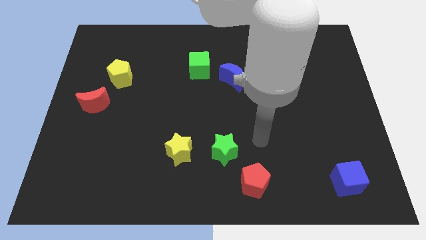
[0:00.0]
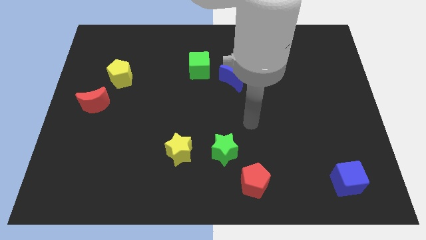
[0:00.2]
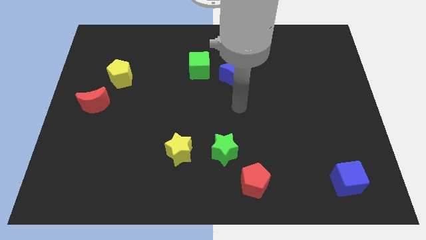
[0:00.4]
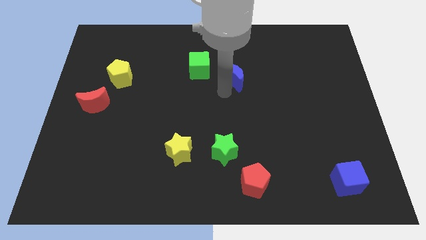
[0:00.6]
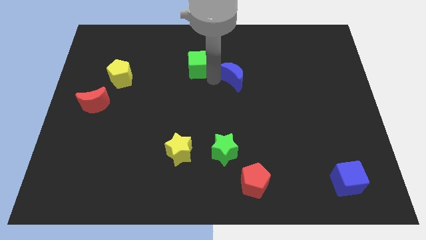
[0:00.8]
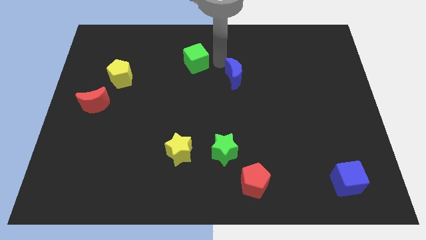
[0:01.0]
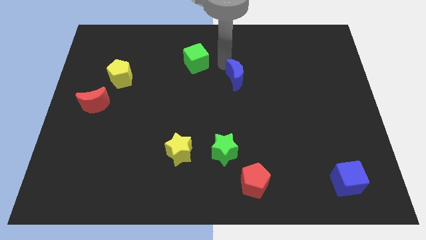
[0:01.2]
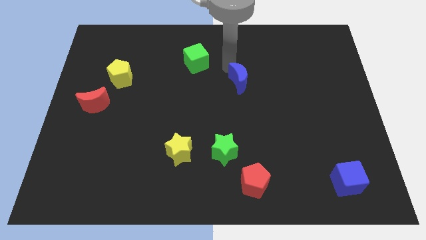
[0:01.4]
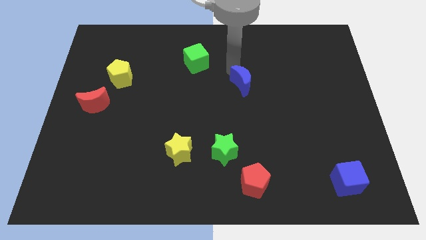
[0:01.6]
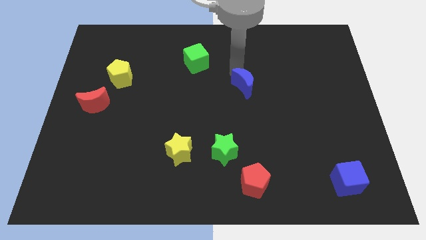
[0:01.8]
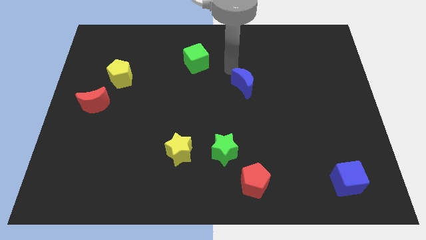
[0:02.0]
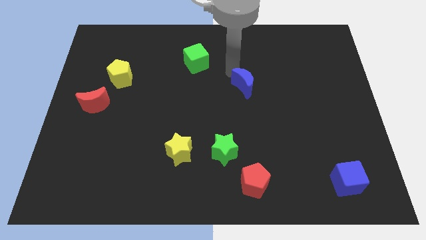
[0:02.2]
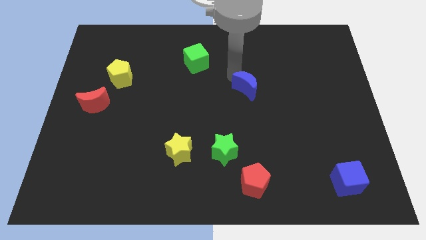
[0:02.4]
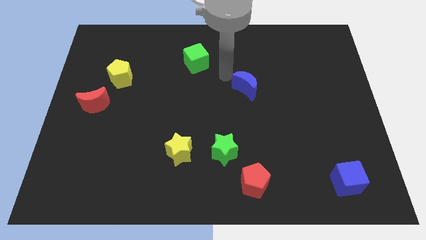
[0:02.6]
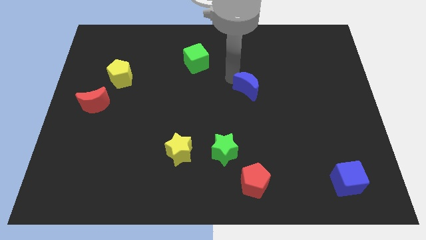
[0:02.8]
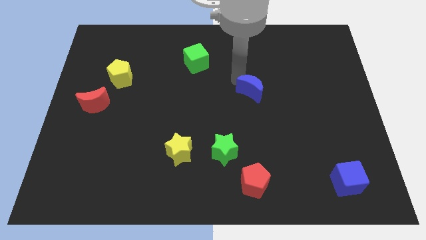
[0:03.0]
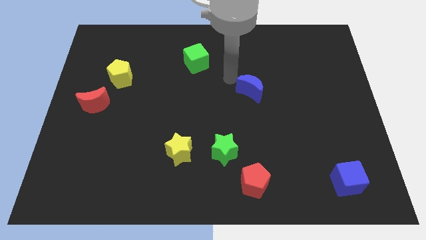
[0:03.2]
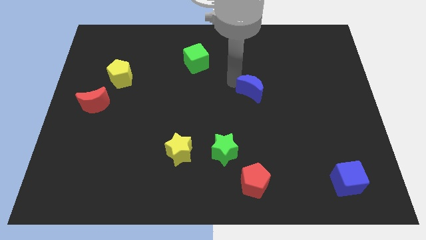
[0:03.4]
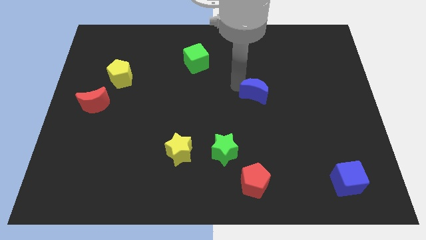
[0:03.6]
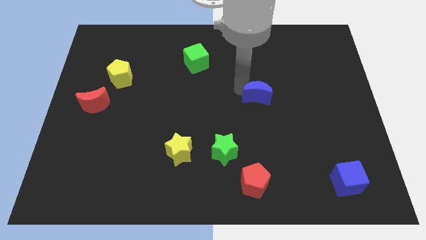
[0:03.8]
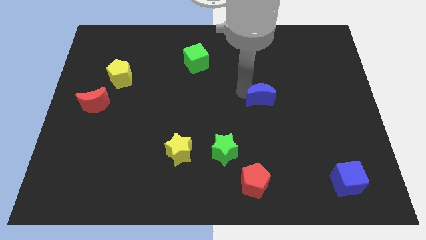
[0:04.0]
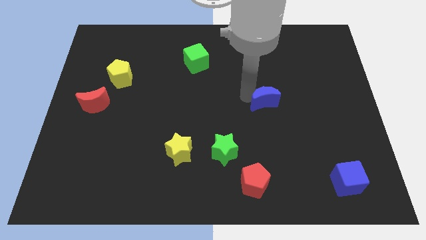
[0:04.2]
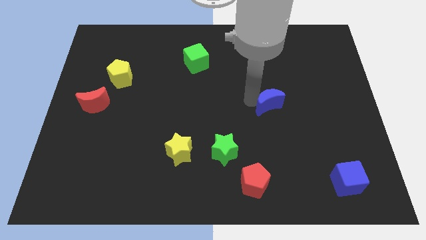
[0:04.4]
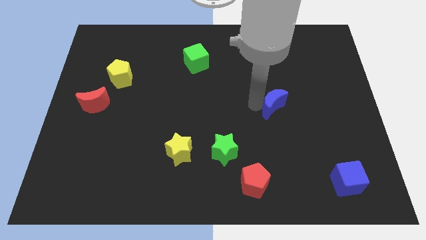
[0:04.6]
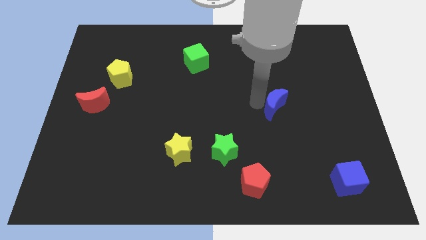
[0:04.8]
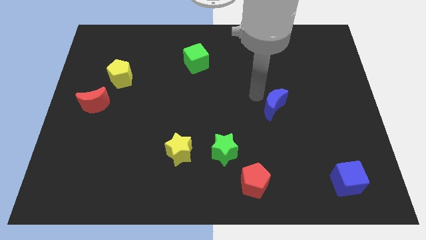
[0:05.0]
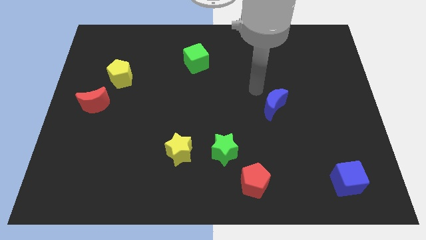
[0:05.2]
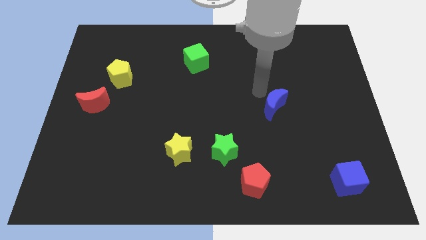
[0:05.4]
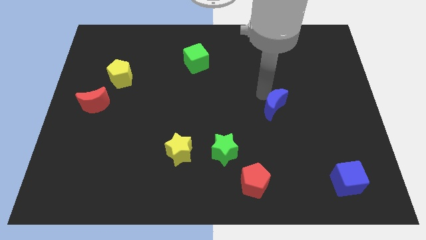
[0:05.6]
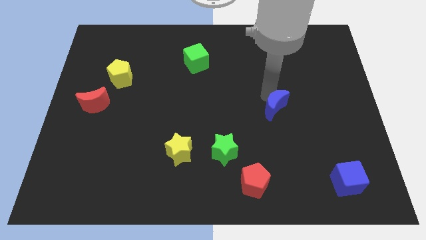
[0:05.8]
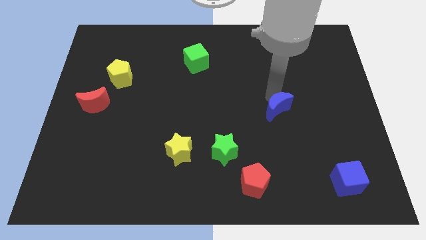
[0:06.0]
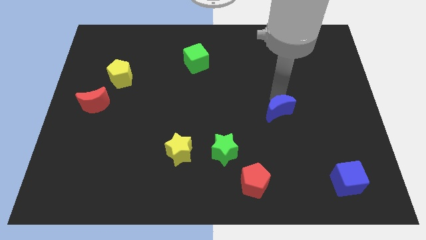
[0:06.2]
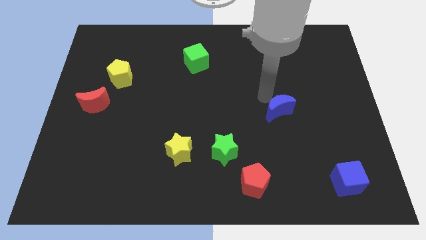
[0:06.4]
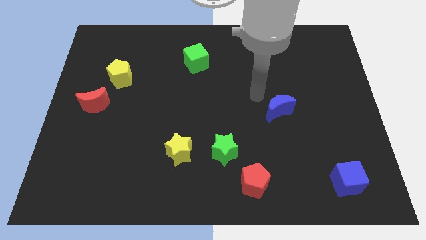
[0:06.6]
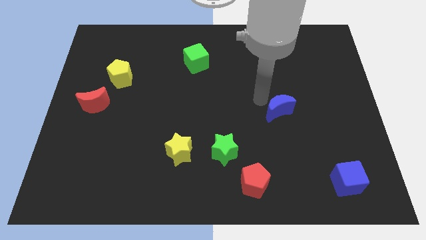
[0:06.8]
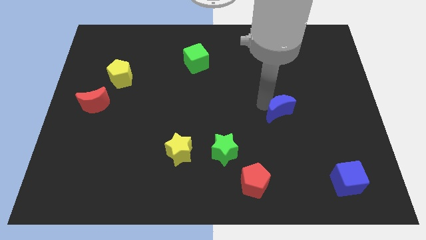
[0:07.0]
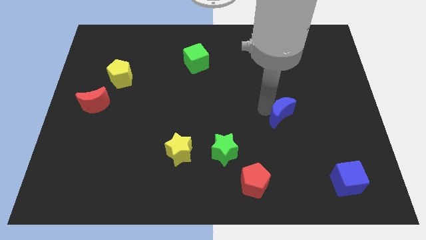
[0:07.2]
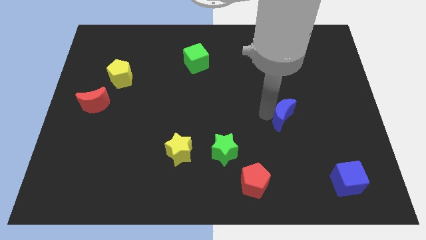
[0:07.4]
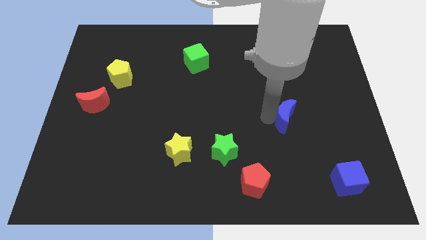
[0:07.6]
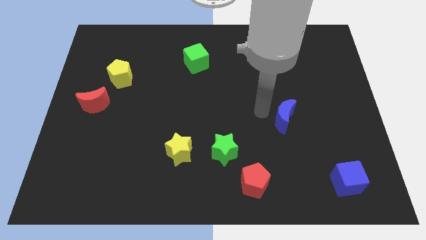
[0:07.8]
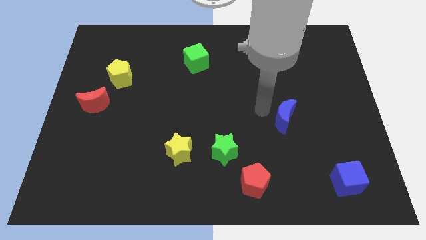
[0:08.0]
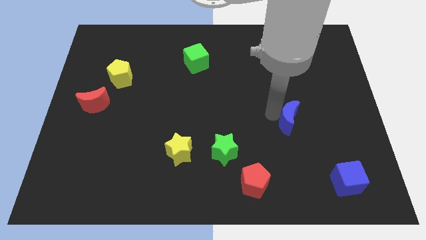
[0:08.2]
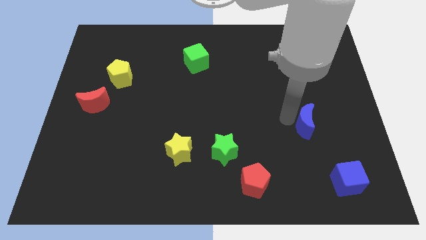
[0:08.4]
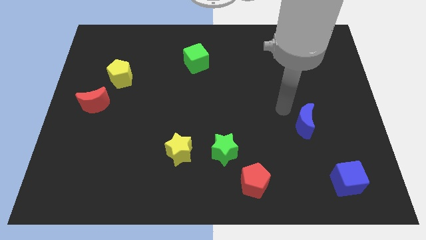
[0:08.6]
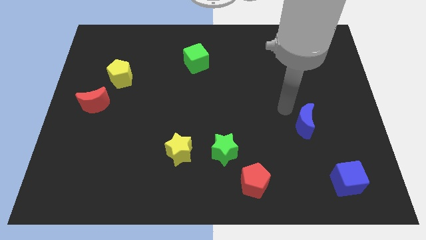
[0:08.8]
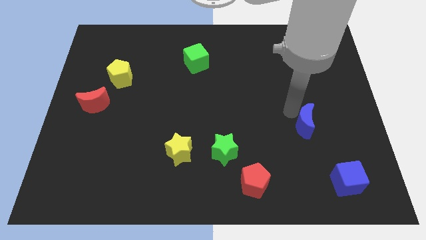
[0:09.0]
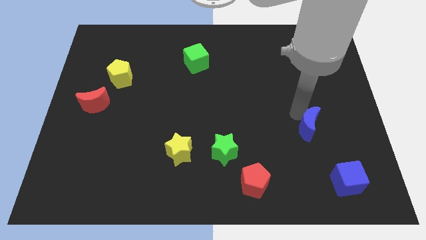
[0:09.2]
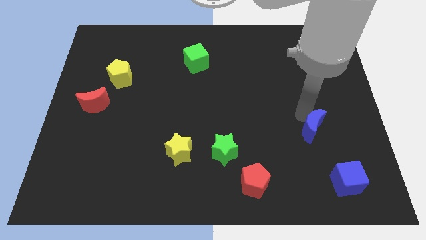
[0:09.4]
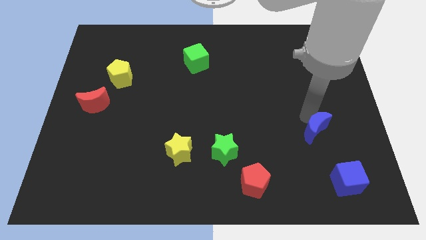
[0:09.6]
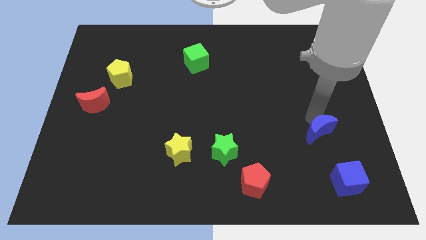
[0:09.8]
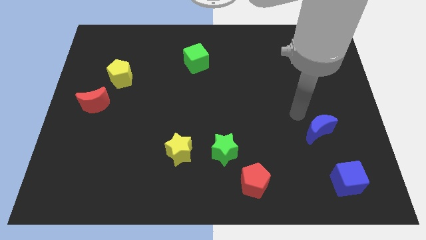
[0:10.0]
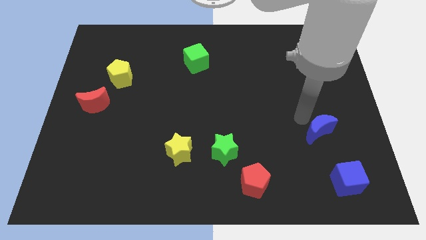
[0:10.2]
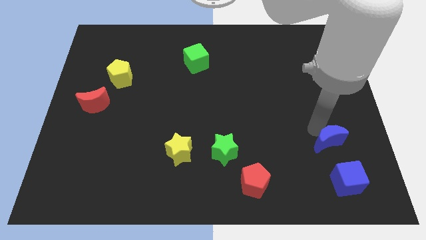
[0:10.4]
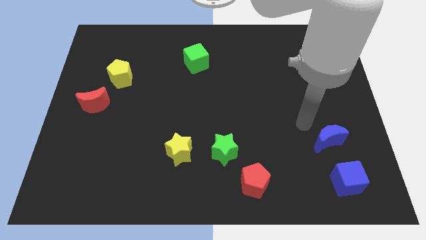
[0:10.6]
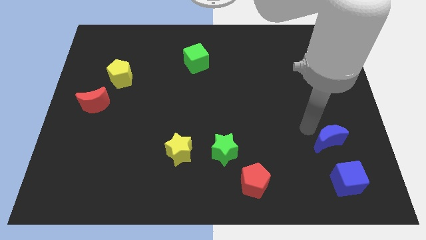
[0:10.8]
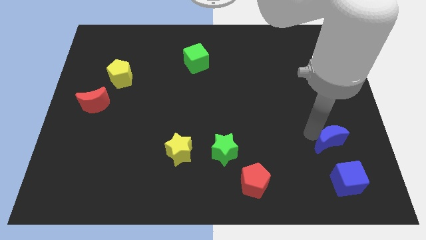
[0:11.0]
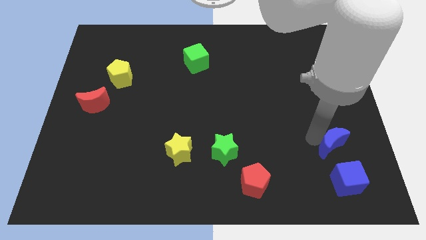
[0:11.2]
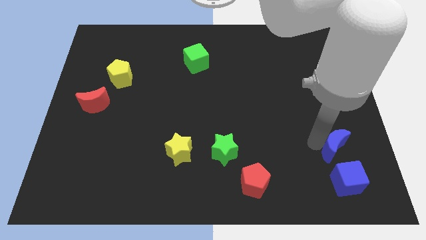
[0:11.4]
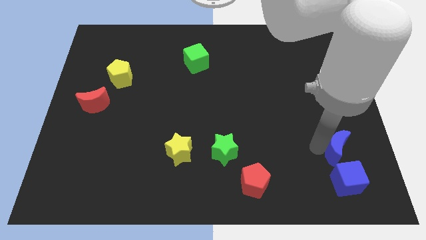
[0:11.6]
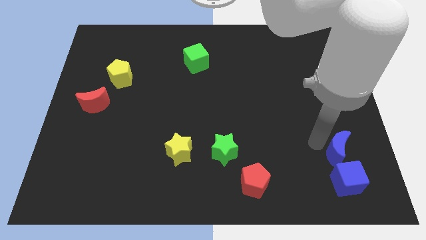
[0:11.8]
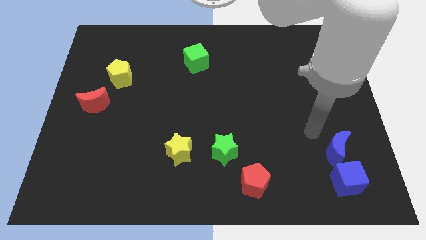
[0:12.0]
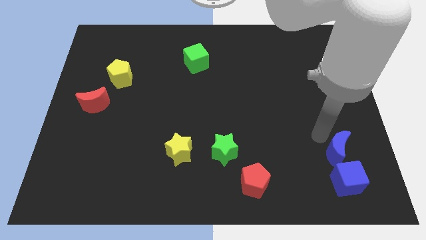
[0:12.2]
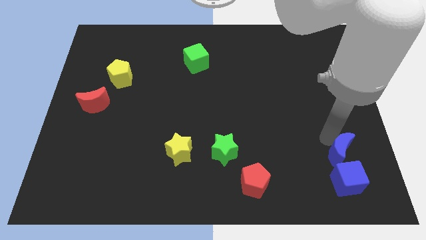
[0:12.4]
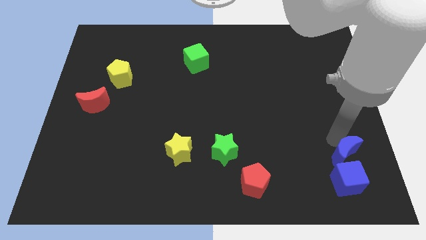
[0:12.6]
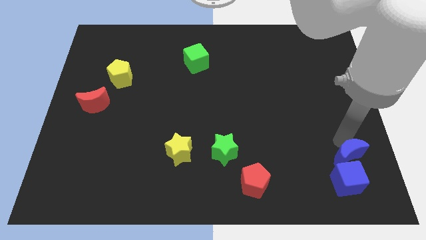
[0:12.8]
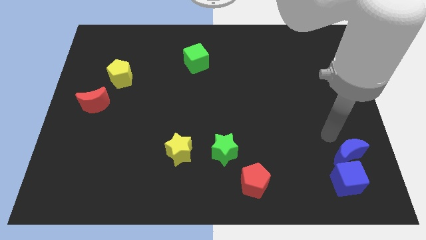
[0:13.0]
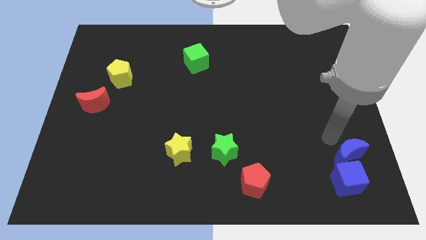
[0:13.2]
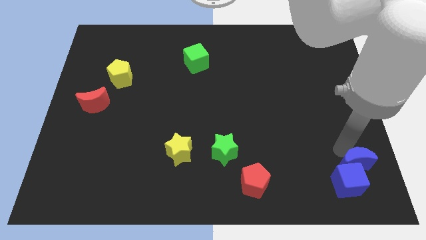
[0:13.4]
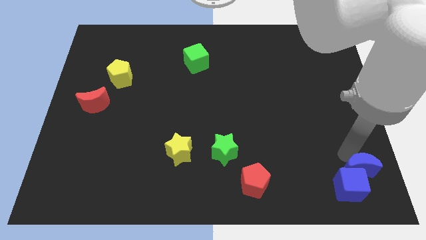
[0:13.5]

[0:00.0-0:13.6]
move the blue moon to the bottom right
